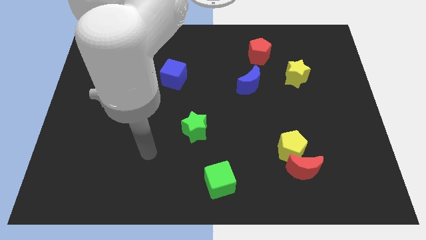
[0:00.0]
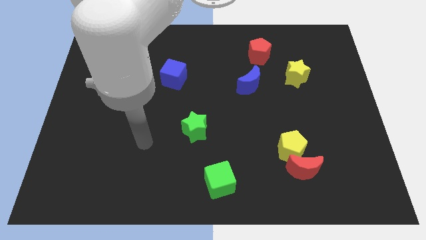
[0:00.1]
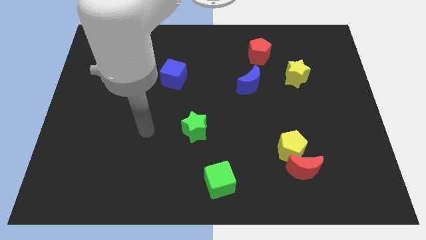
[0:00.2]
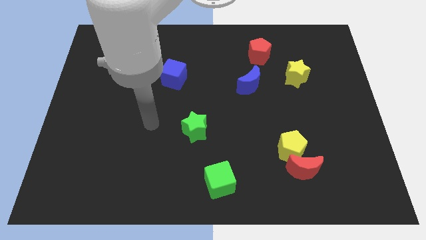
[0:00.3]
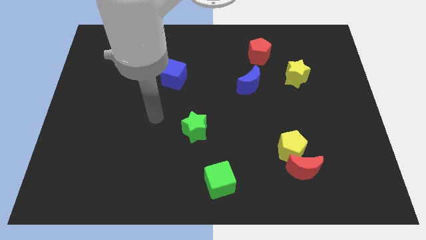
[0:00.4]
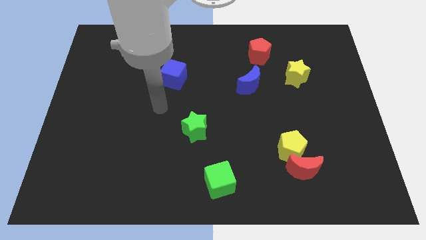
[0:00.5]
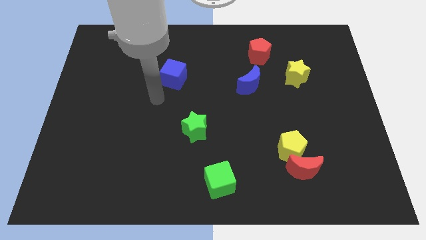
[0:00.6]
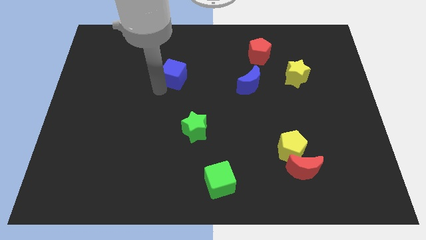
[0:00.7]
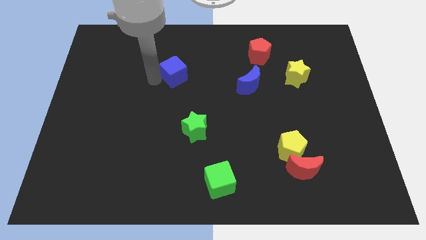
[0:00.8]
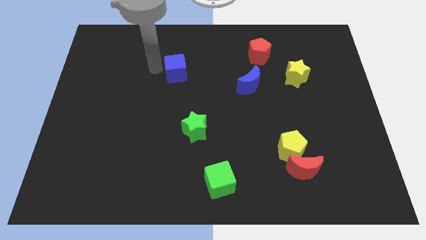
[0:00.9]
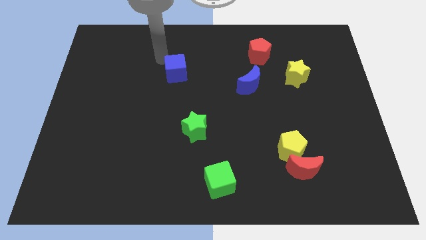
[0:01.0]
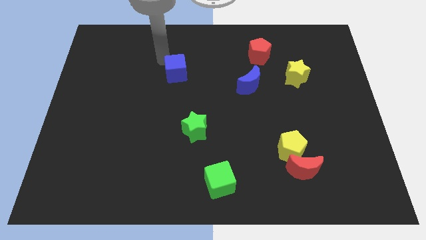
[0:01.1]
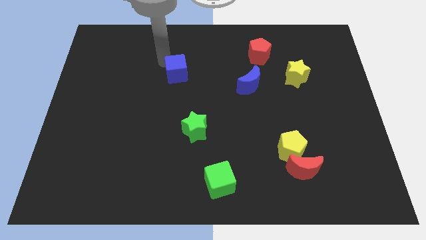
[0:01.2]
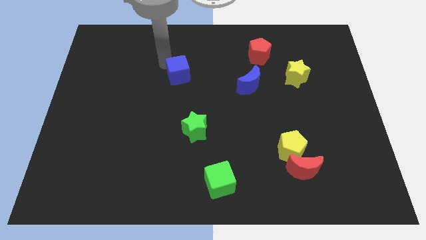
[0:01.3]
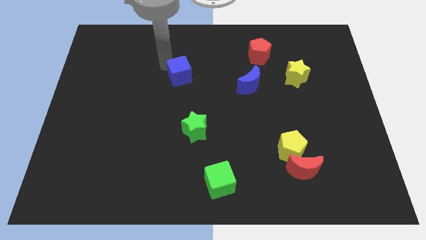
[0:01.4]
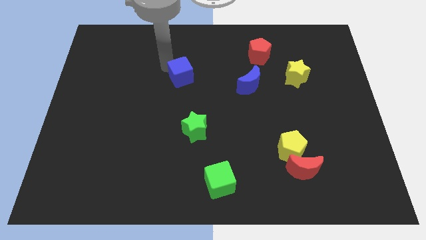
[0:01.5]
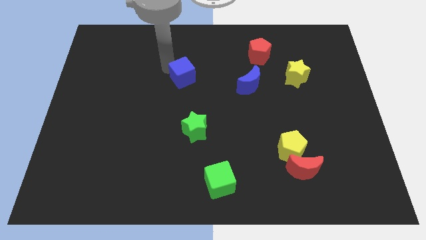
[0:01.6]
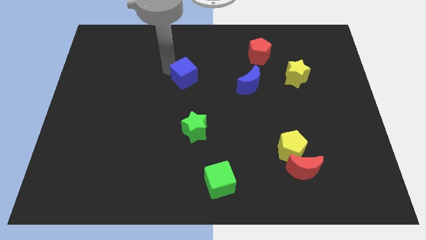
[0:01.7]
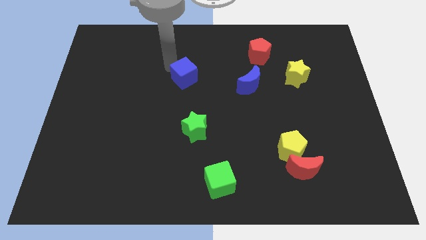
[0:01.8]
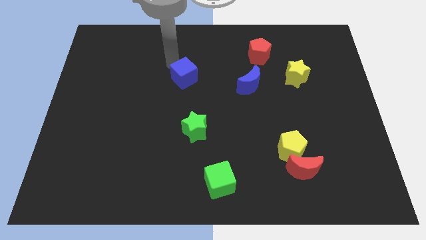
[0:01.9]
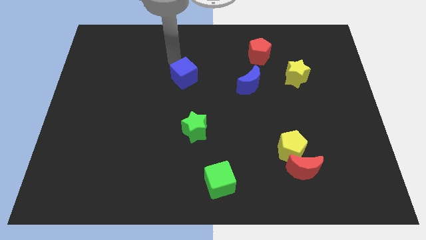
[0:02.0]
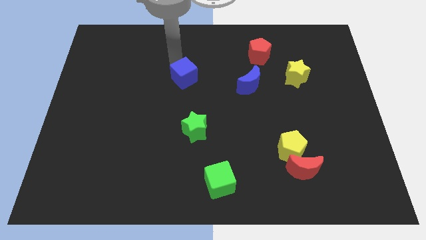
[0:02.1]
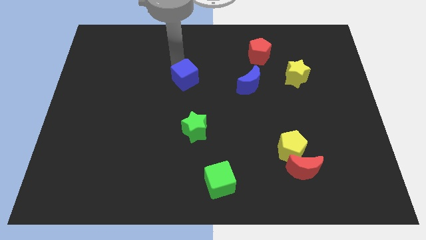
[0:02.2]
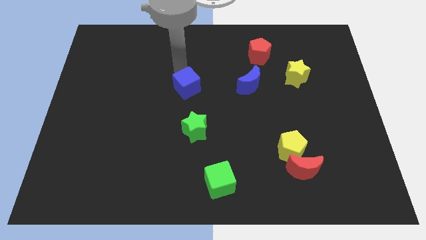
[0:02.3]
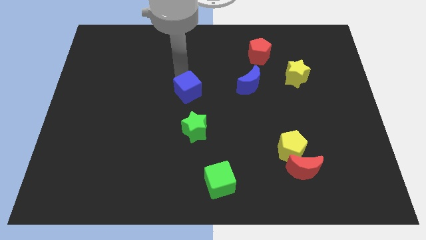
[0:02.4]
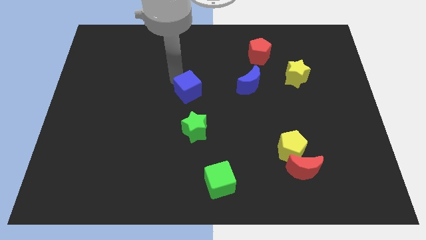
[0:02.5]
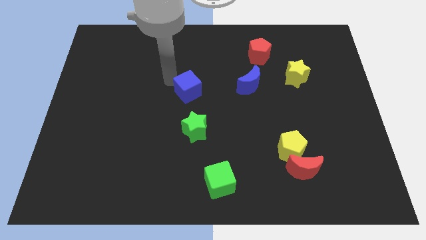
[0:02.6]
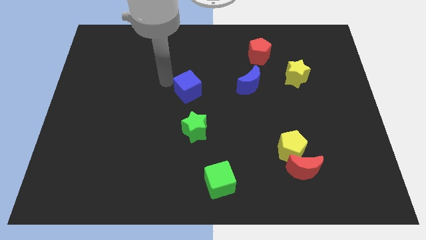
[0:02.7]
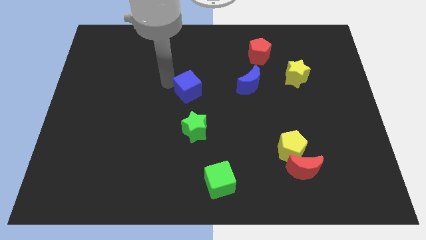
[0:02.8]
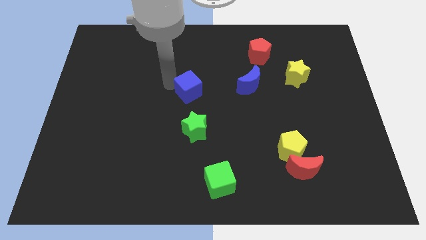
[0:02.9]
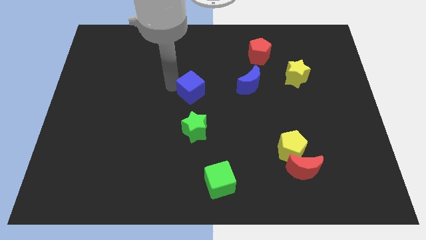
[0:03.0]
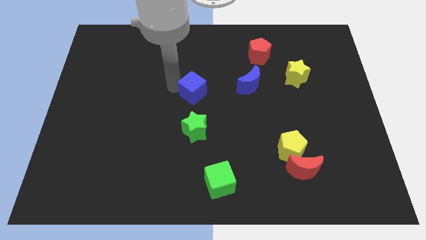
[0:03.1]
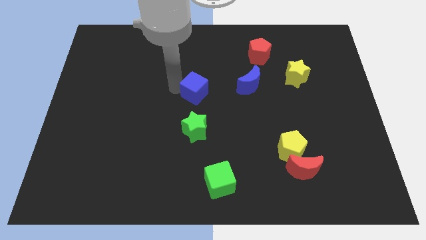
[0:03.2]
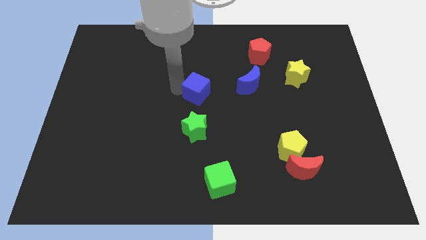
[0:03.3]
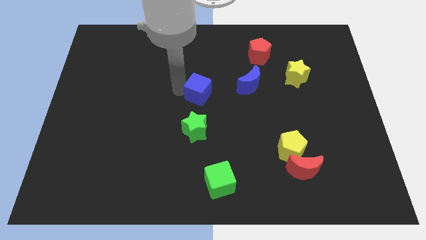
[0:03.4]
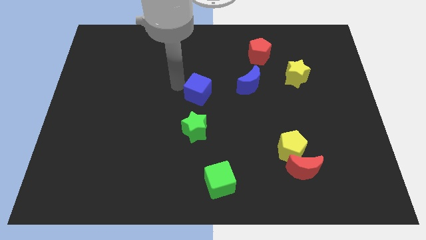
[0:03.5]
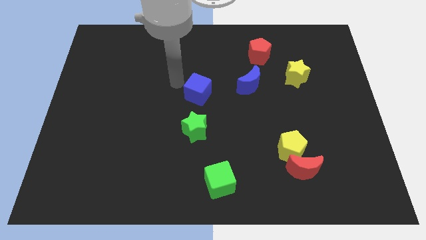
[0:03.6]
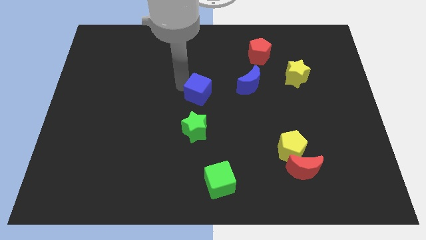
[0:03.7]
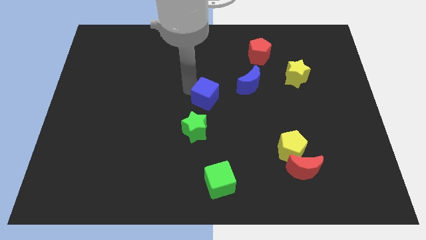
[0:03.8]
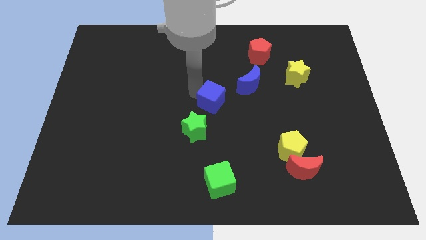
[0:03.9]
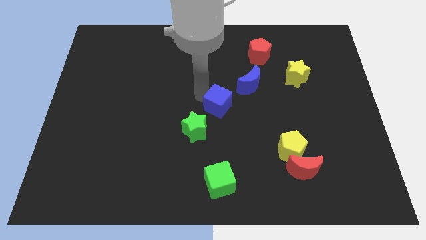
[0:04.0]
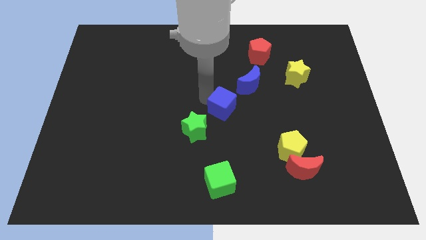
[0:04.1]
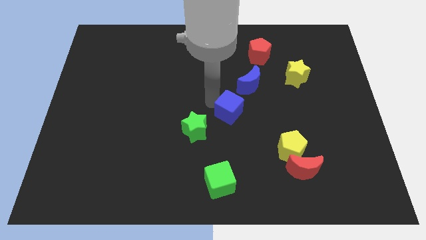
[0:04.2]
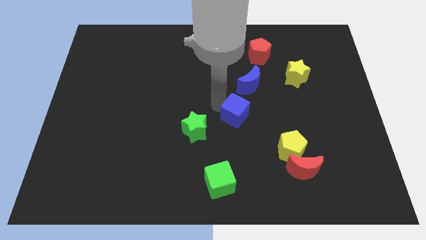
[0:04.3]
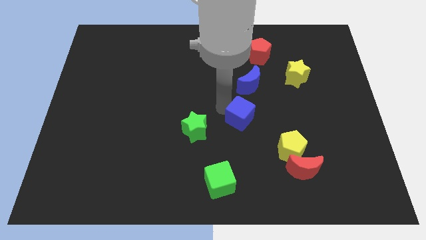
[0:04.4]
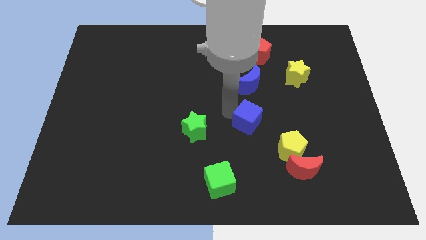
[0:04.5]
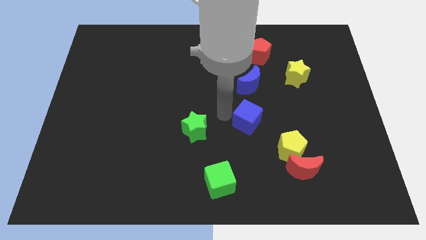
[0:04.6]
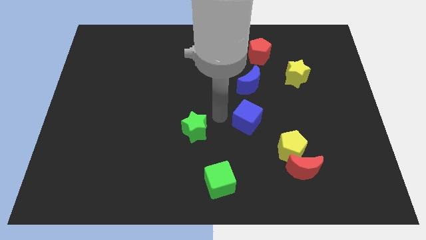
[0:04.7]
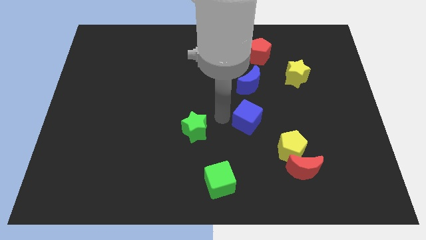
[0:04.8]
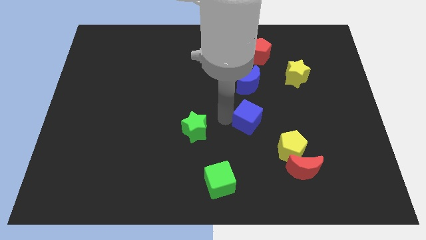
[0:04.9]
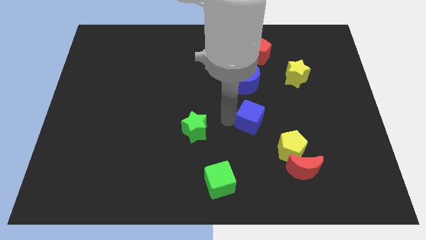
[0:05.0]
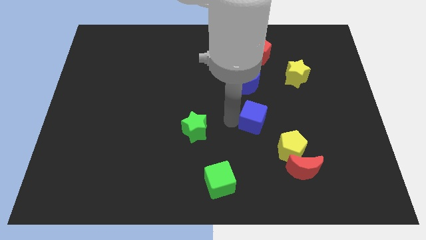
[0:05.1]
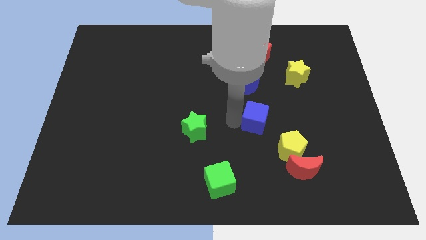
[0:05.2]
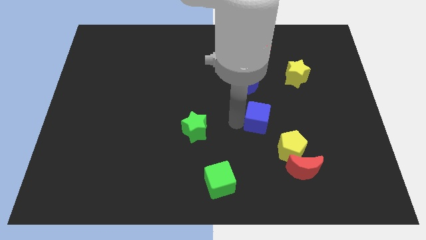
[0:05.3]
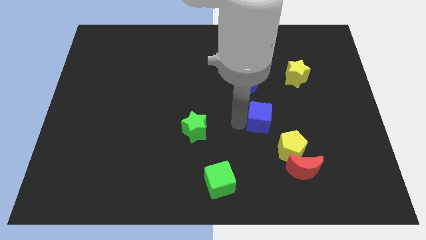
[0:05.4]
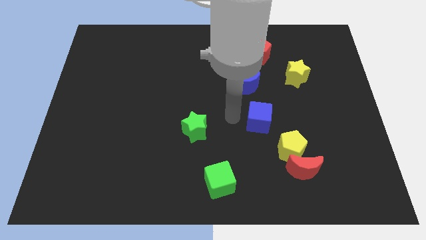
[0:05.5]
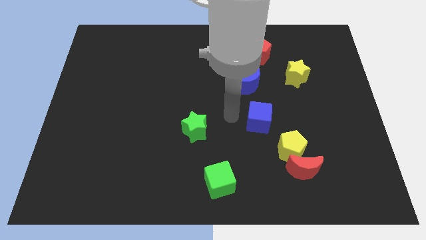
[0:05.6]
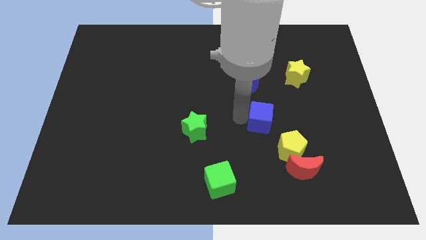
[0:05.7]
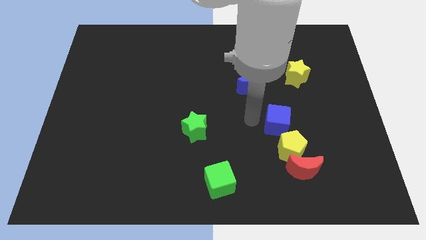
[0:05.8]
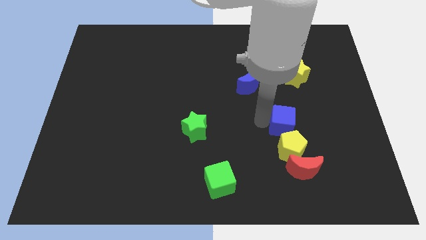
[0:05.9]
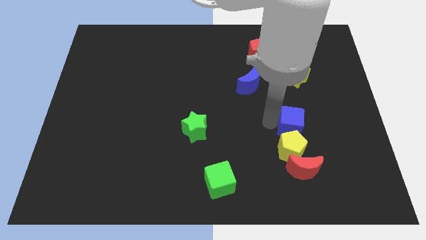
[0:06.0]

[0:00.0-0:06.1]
put the blue cube to the top right side of the yellow pentagon

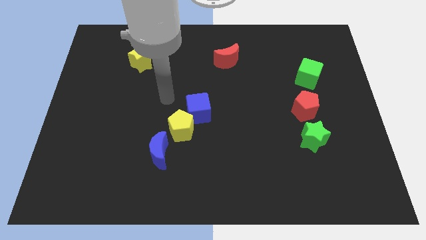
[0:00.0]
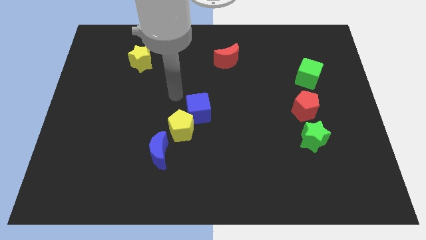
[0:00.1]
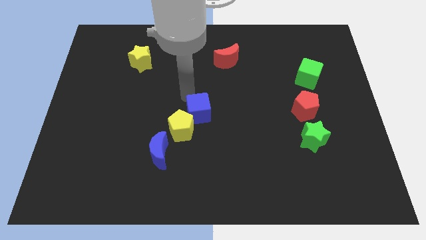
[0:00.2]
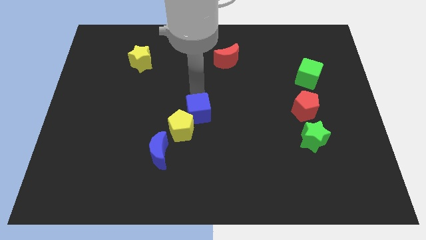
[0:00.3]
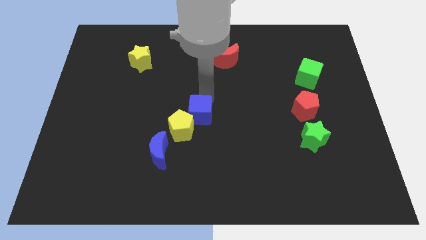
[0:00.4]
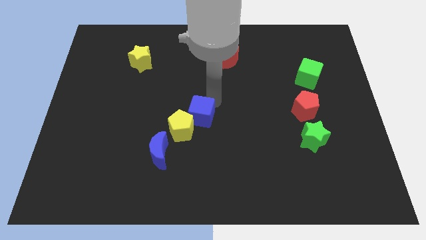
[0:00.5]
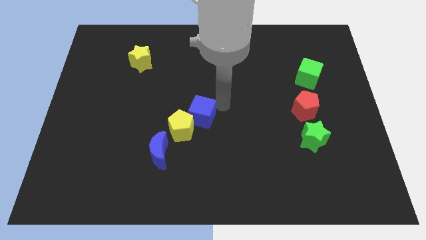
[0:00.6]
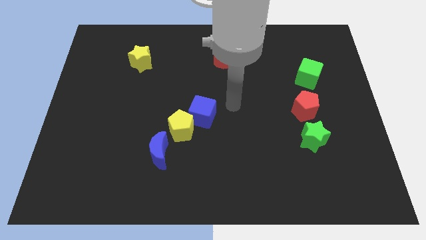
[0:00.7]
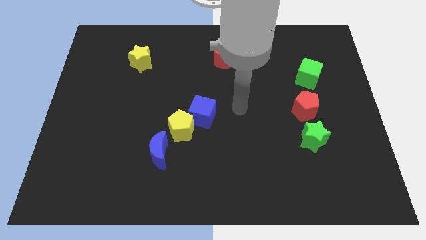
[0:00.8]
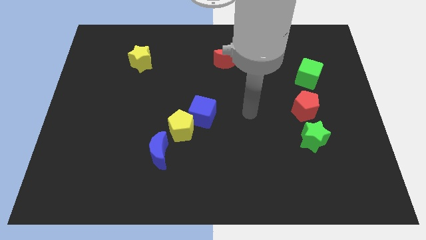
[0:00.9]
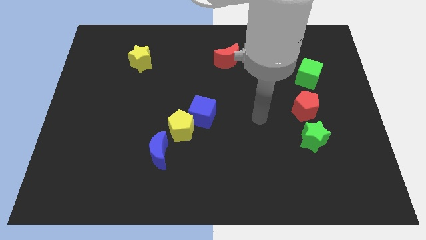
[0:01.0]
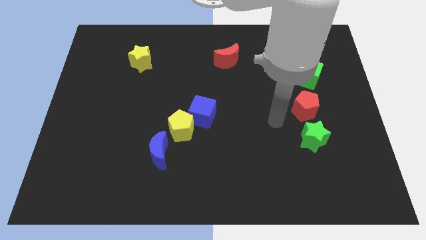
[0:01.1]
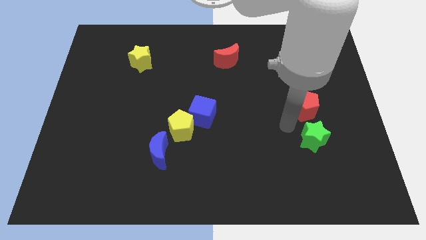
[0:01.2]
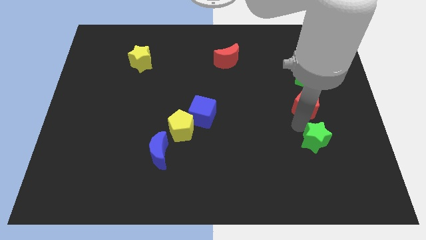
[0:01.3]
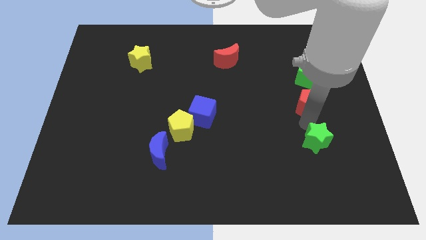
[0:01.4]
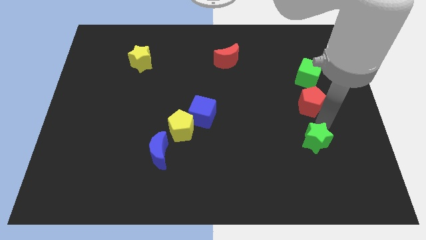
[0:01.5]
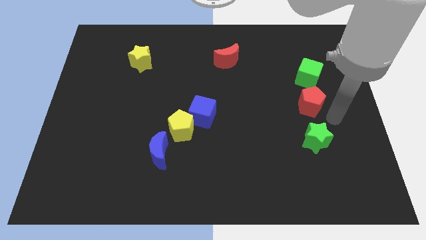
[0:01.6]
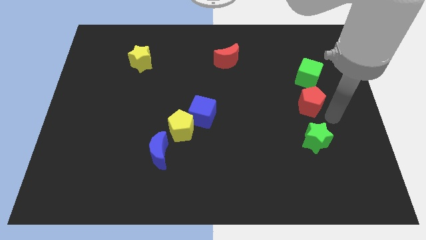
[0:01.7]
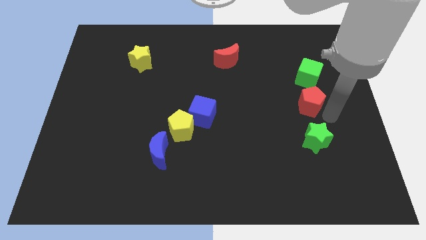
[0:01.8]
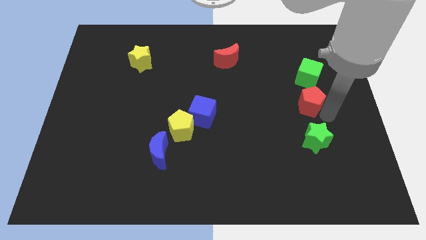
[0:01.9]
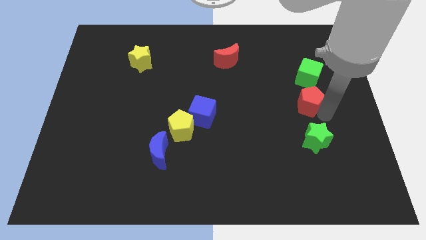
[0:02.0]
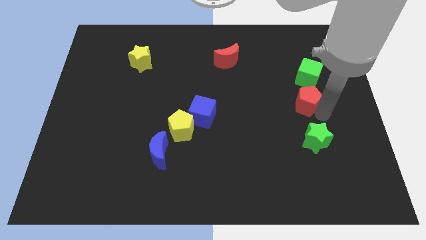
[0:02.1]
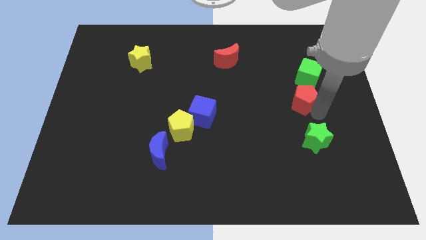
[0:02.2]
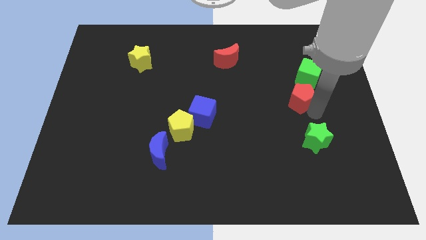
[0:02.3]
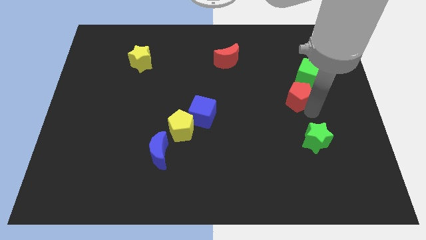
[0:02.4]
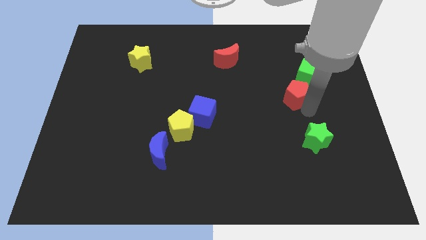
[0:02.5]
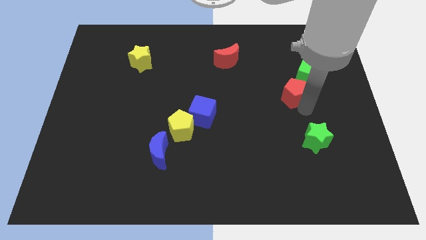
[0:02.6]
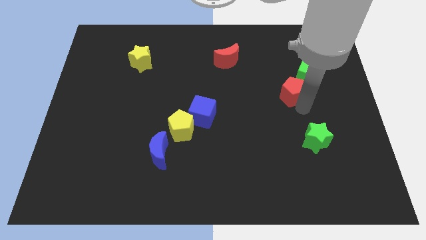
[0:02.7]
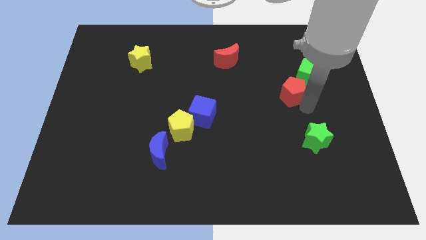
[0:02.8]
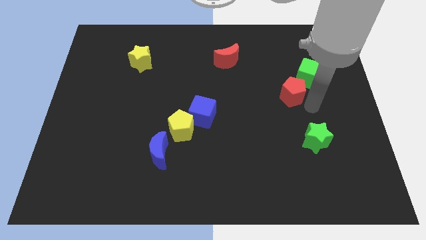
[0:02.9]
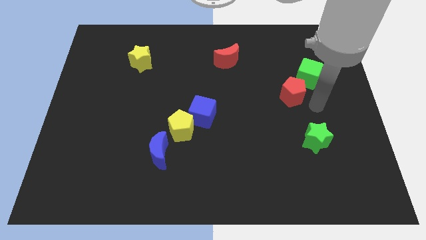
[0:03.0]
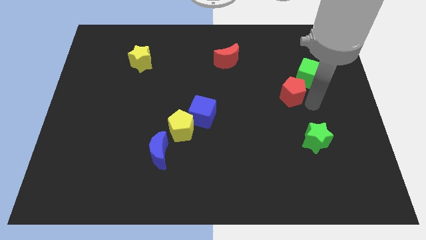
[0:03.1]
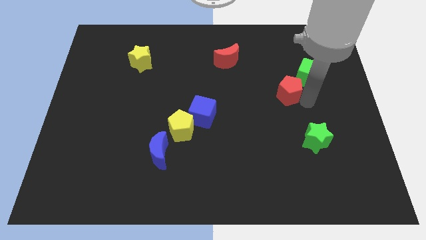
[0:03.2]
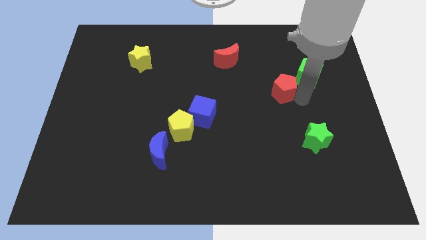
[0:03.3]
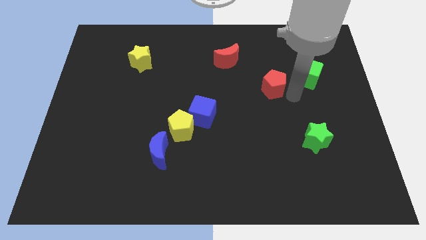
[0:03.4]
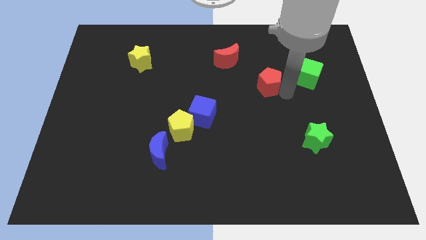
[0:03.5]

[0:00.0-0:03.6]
put the red pentagon to the bottom right side of the red moon
